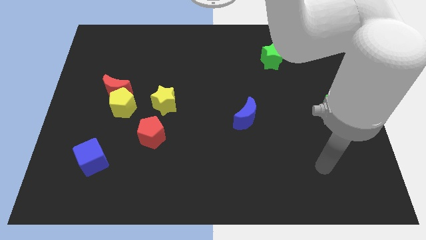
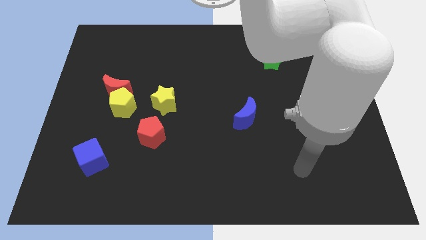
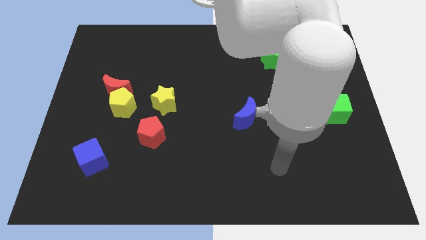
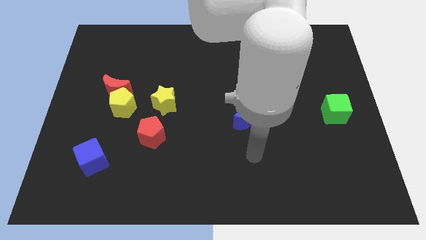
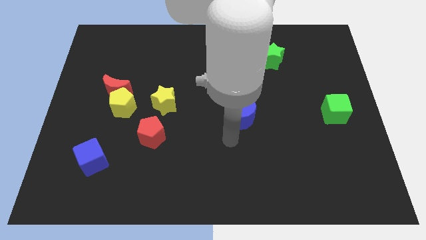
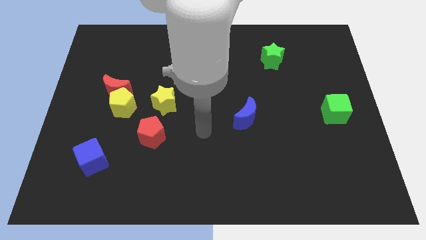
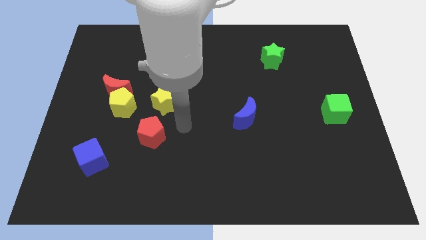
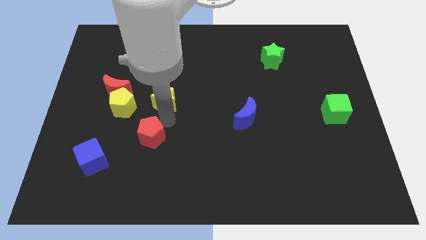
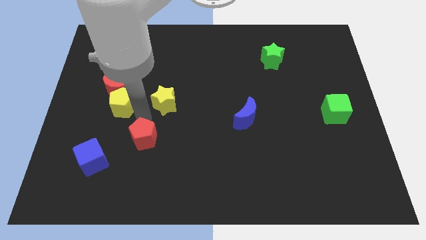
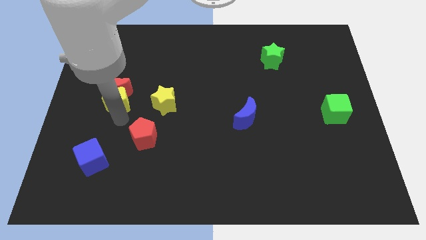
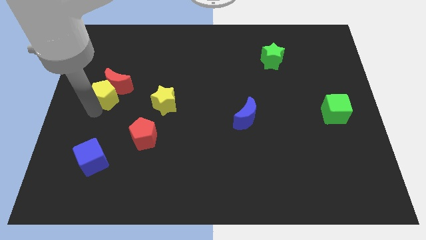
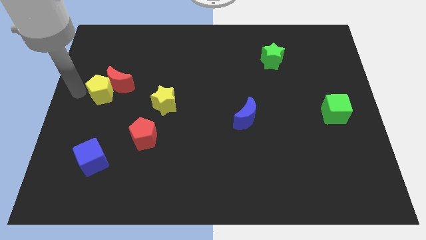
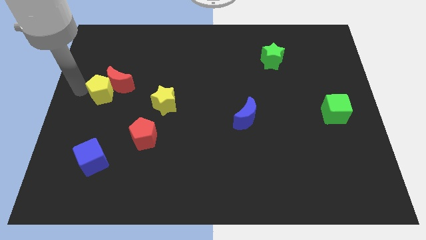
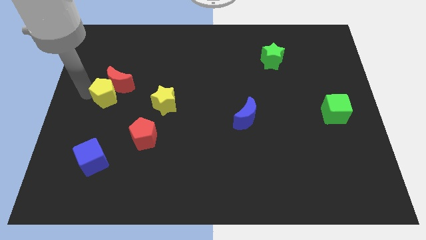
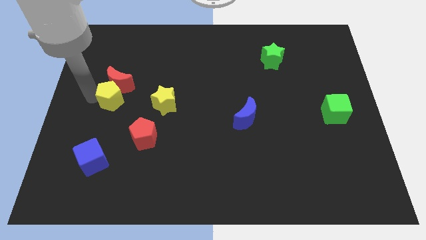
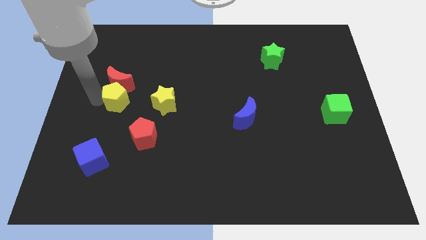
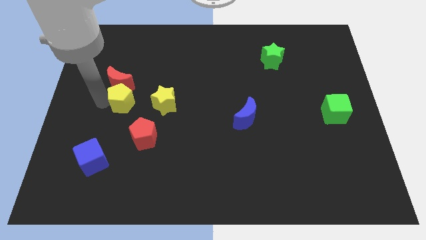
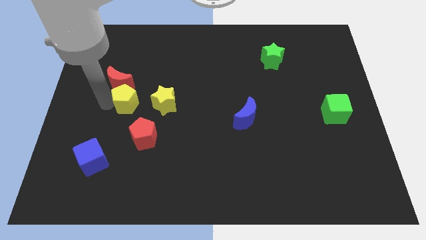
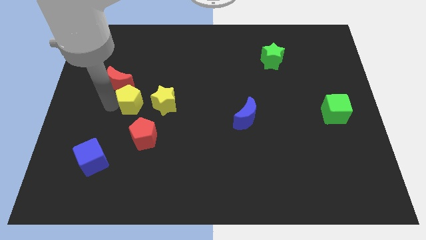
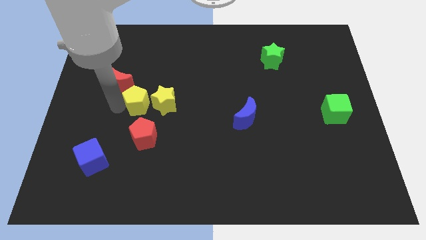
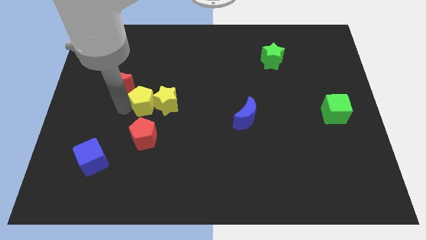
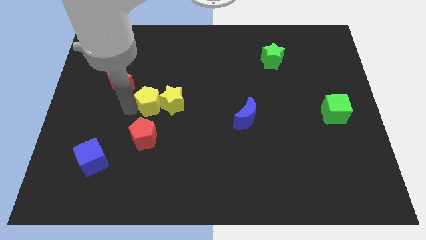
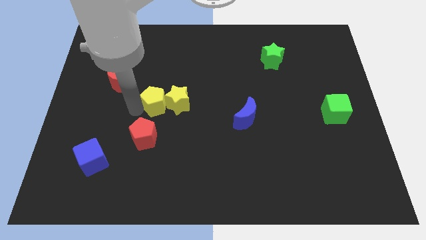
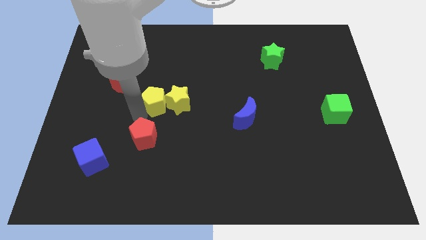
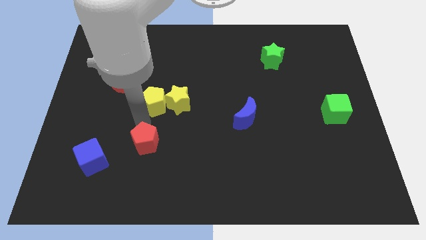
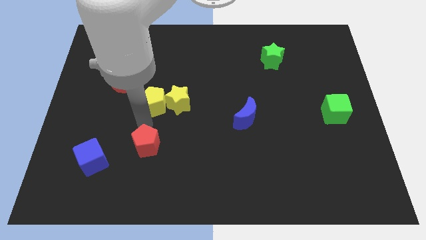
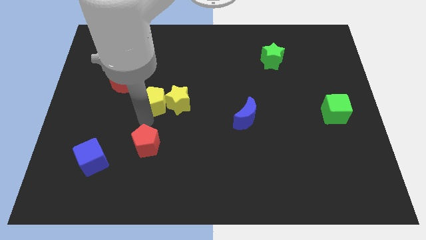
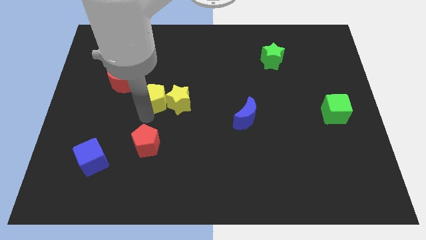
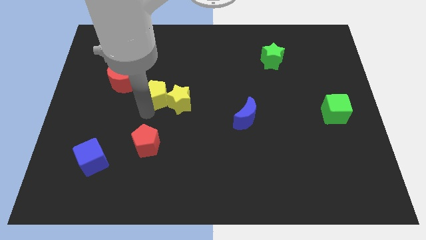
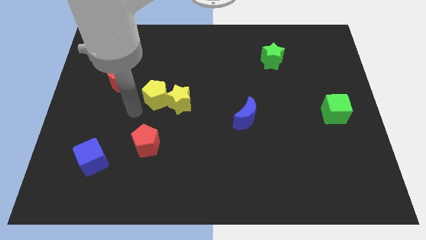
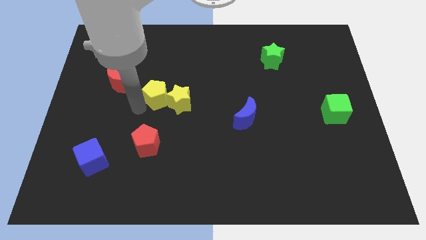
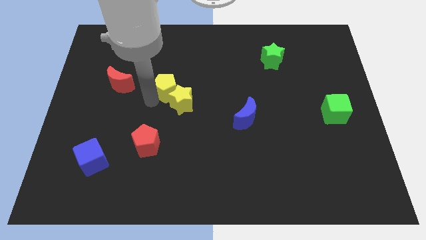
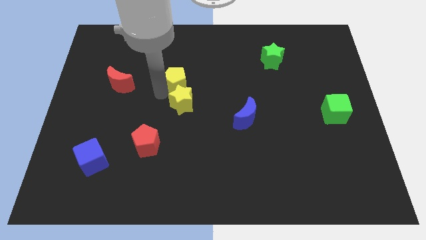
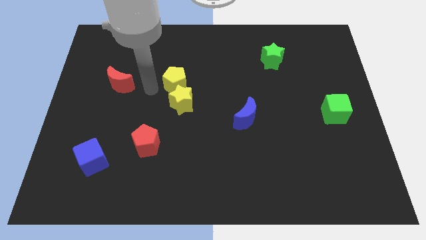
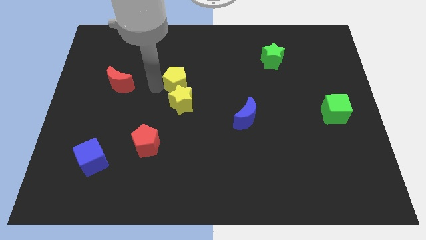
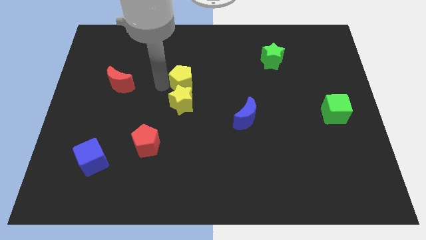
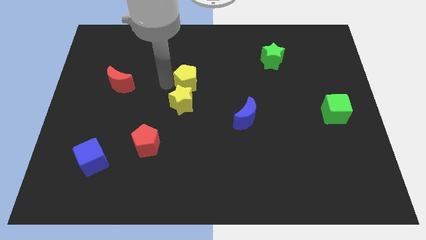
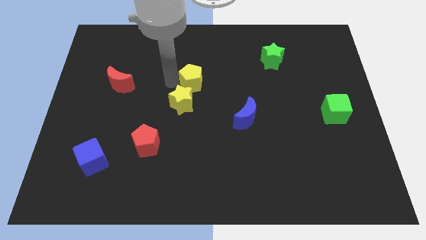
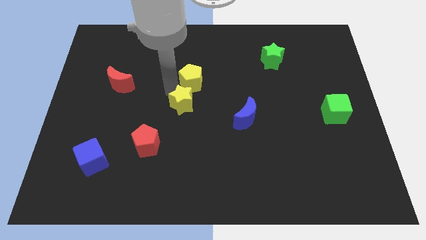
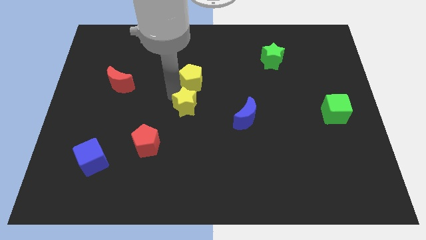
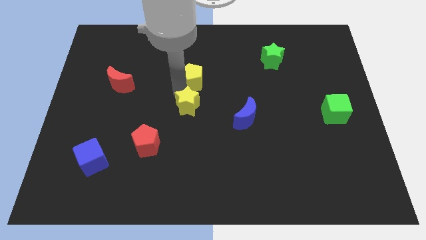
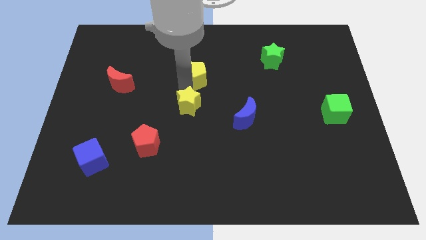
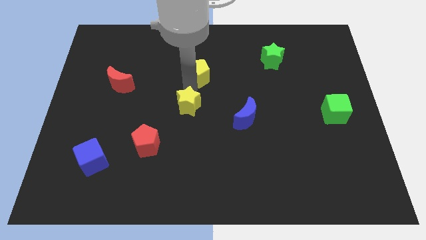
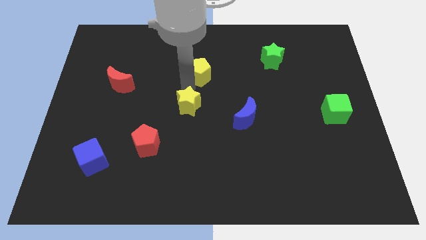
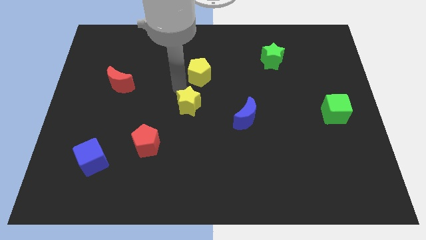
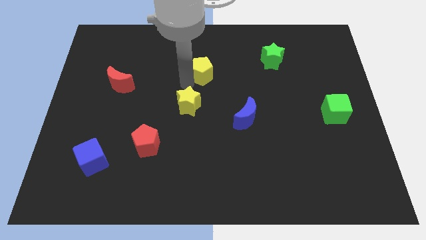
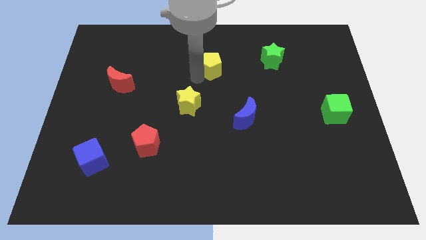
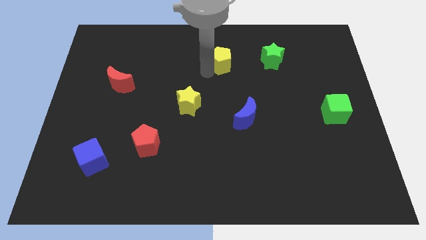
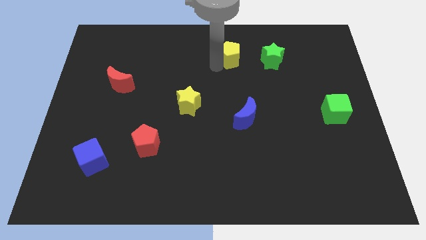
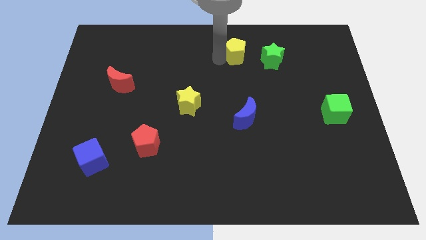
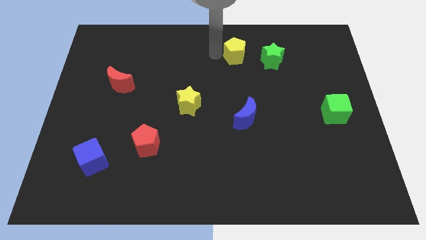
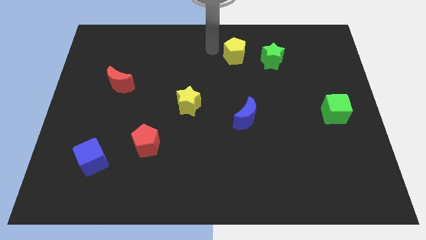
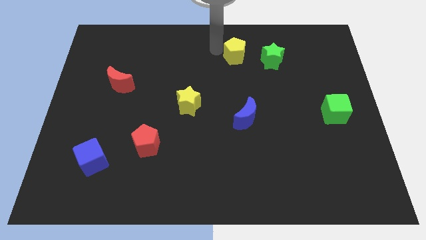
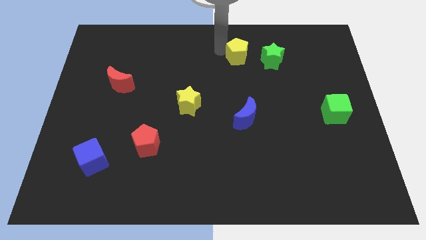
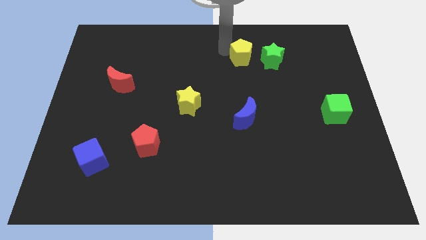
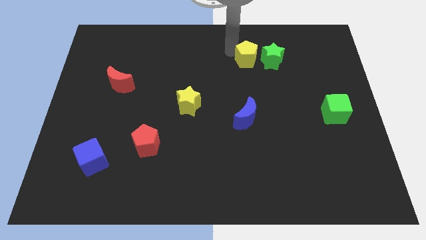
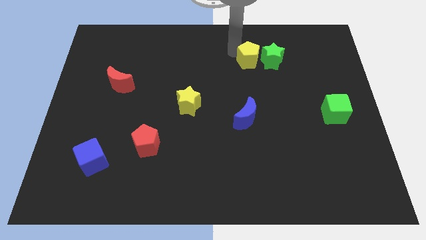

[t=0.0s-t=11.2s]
move the yellow pentagon to the green star

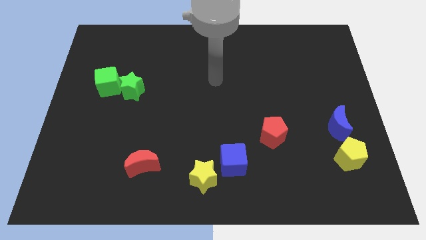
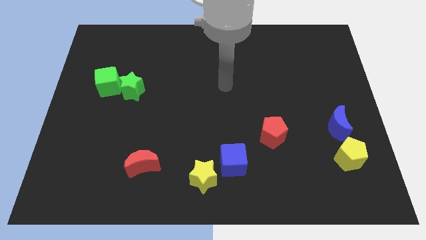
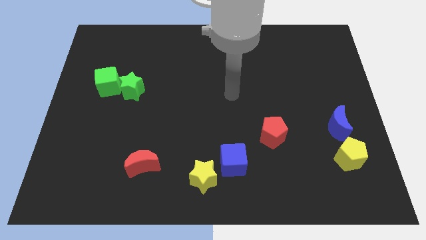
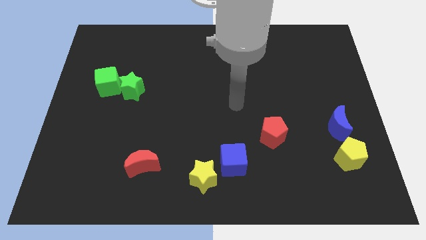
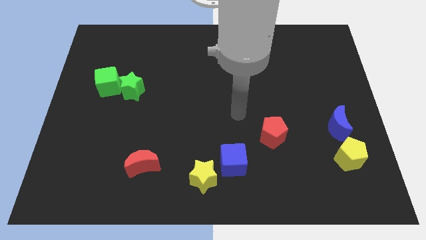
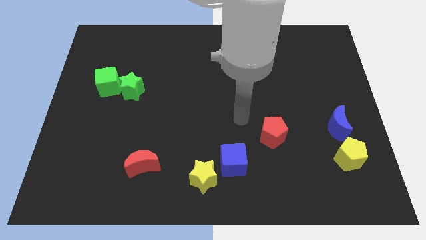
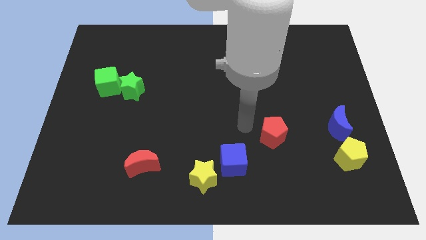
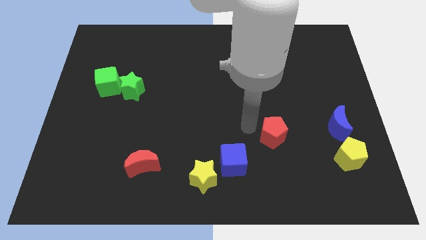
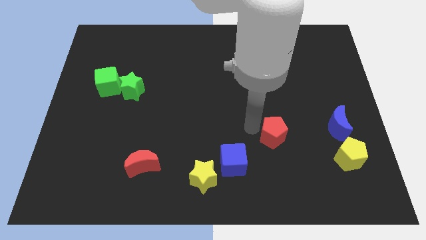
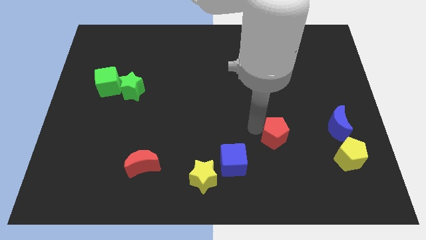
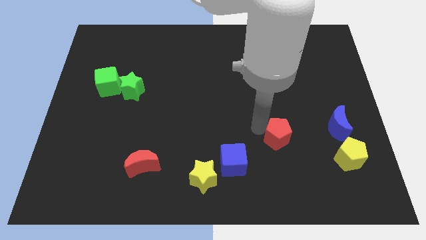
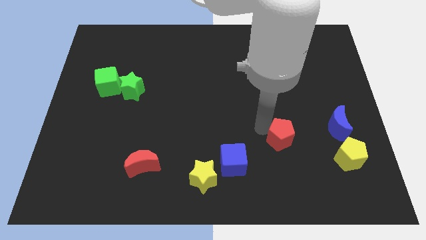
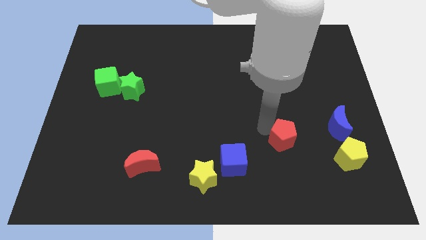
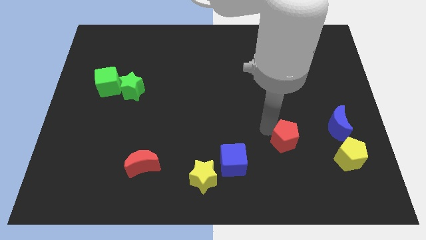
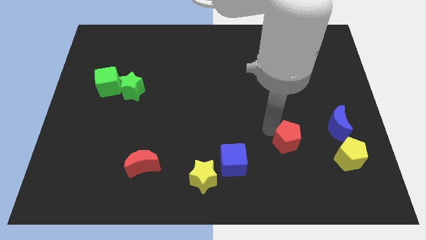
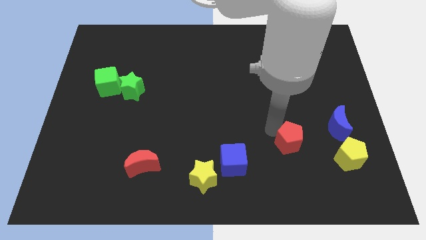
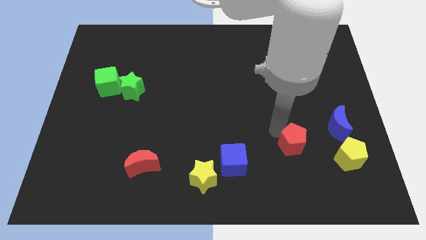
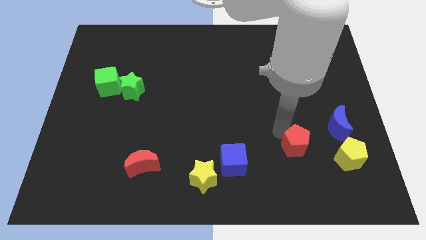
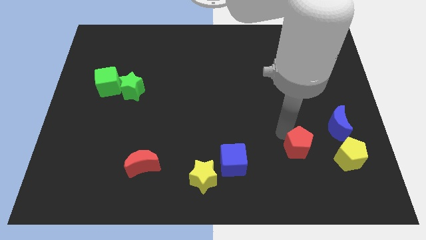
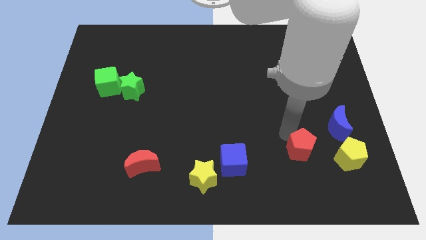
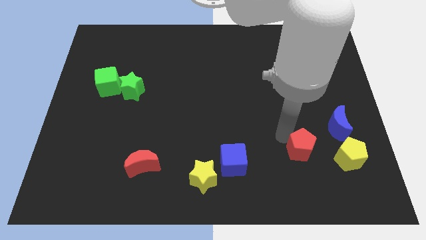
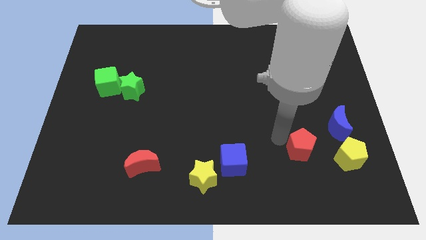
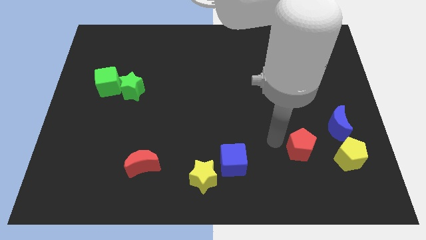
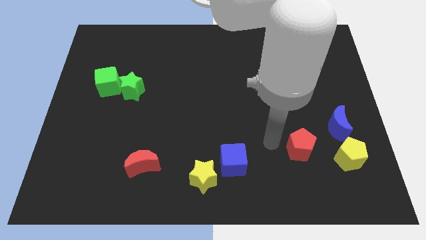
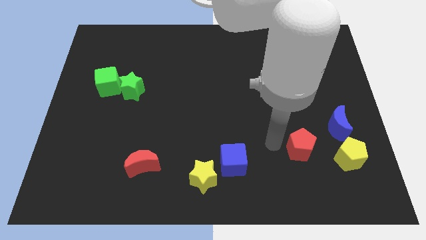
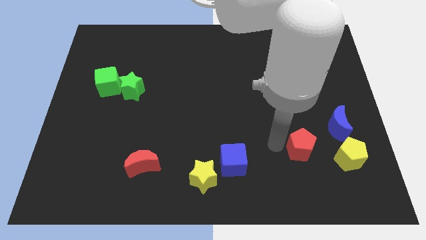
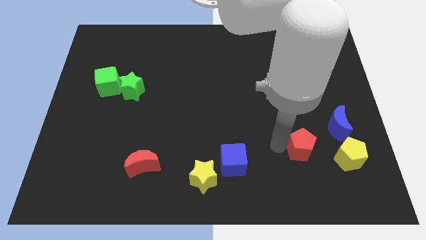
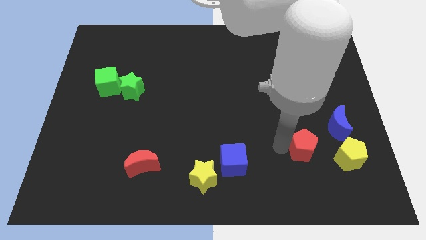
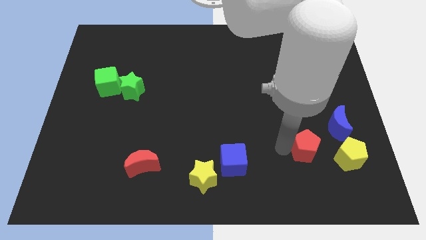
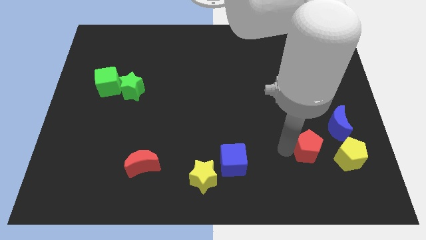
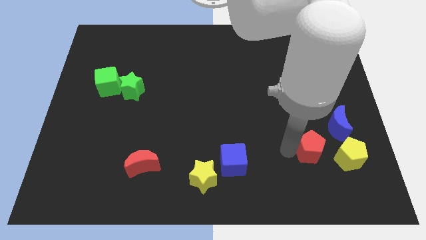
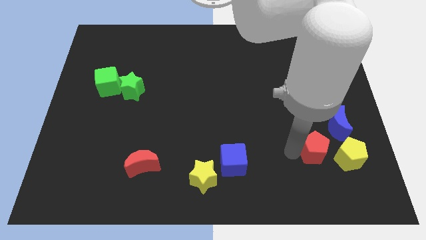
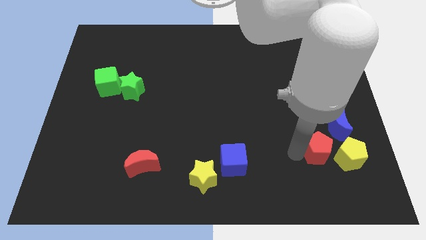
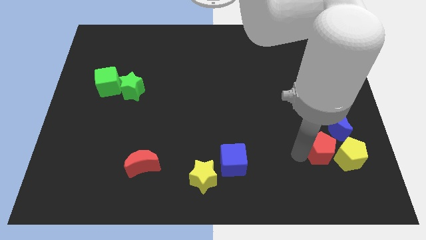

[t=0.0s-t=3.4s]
put the red pentagon next to the yellow pentagon
